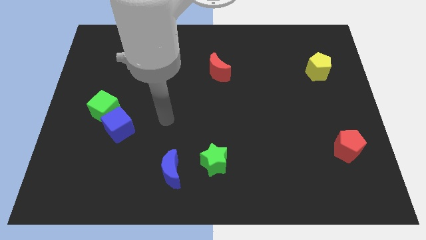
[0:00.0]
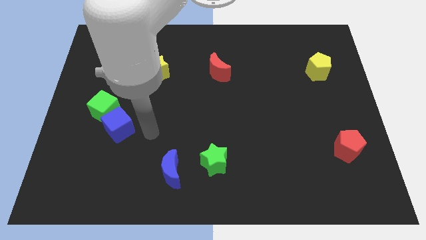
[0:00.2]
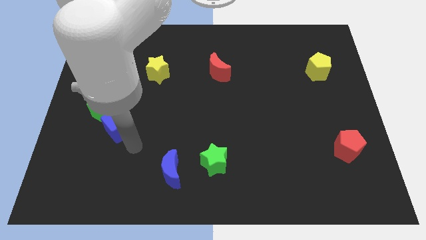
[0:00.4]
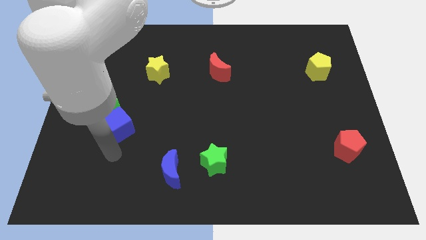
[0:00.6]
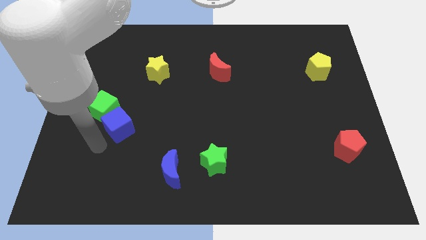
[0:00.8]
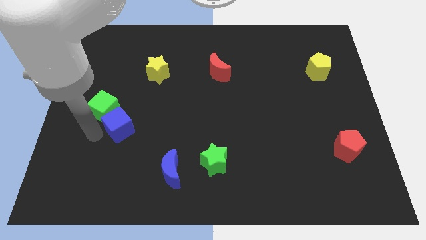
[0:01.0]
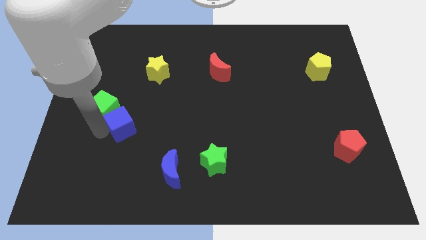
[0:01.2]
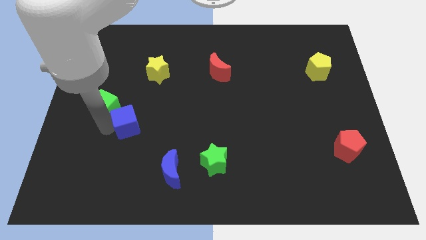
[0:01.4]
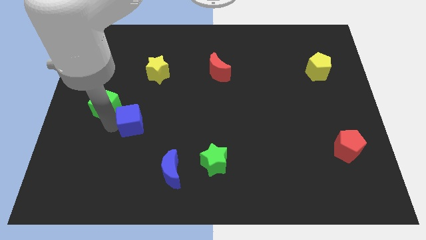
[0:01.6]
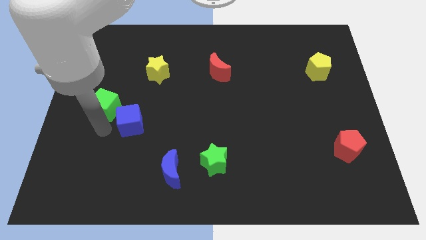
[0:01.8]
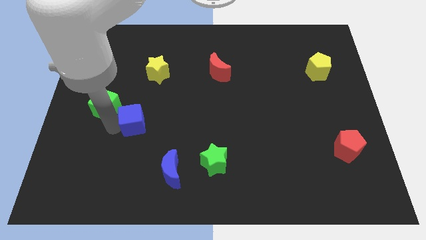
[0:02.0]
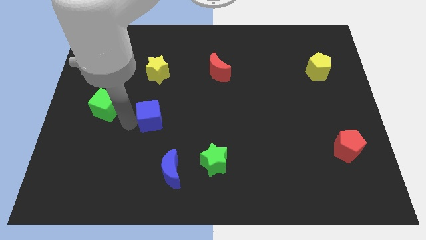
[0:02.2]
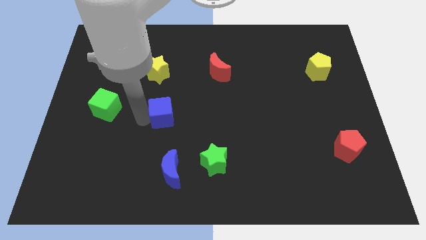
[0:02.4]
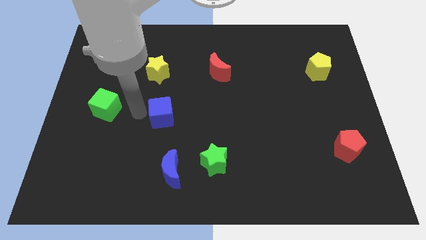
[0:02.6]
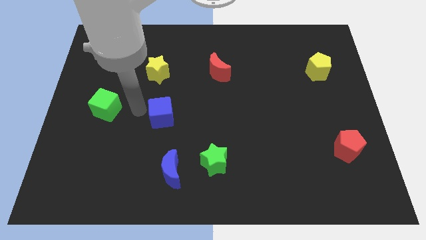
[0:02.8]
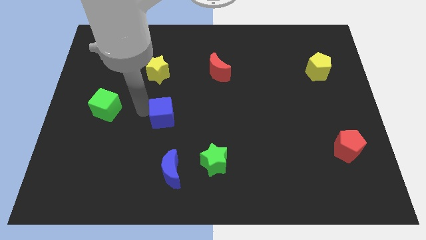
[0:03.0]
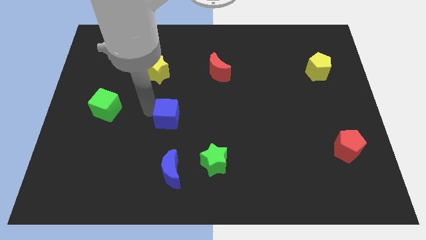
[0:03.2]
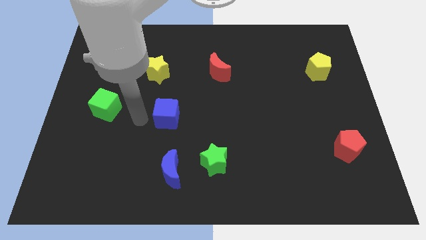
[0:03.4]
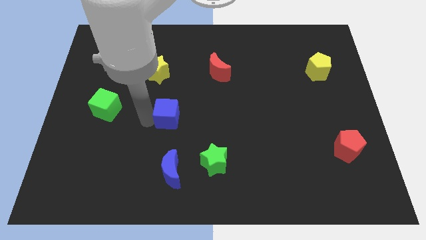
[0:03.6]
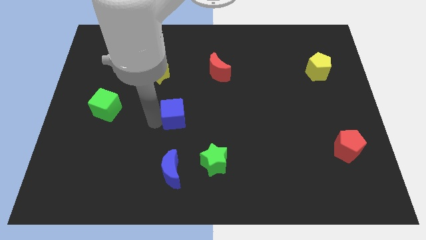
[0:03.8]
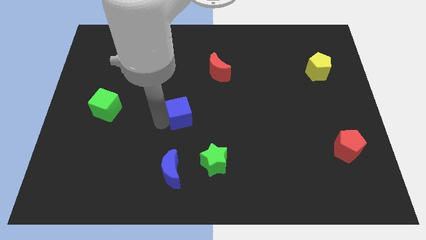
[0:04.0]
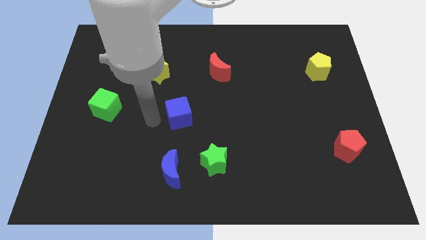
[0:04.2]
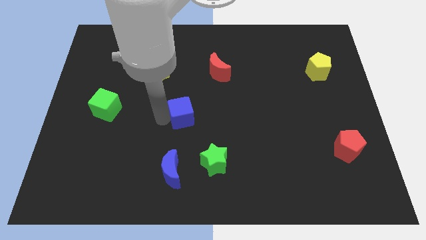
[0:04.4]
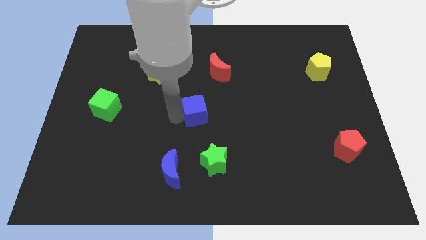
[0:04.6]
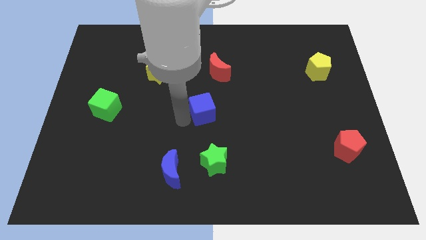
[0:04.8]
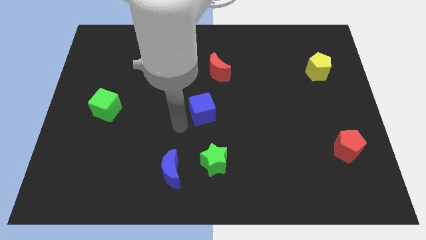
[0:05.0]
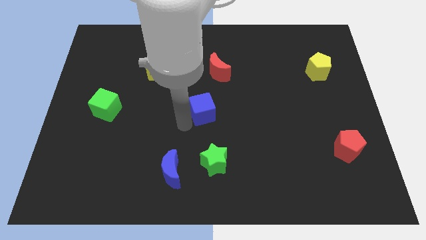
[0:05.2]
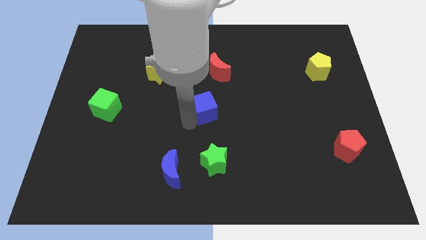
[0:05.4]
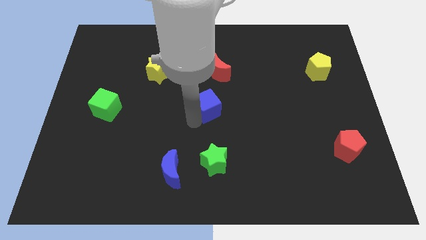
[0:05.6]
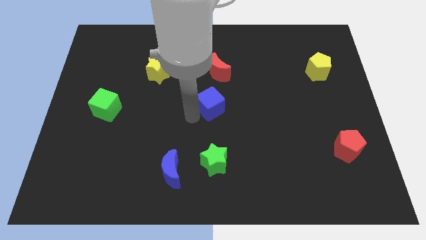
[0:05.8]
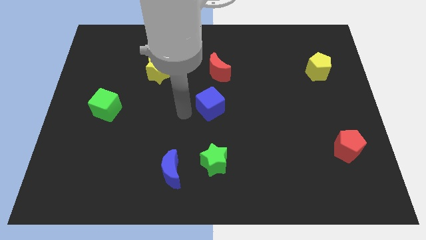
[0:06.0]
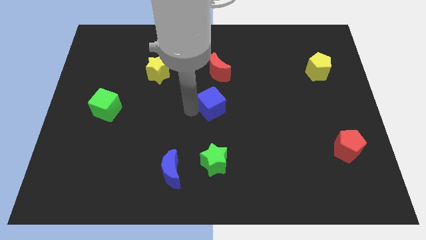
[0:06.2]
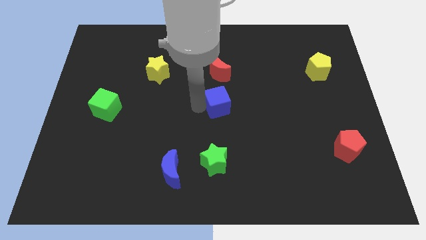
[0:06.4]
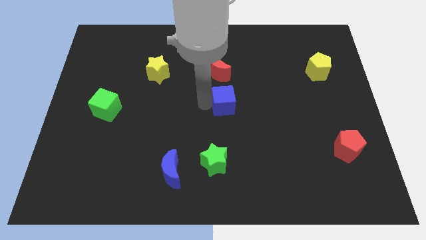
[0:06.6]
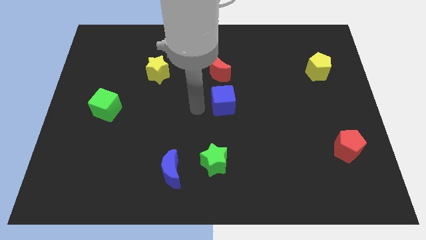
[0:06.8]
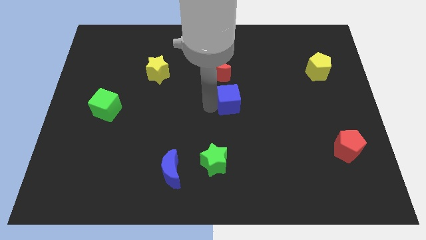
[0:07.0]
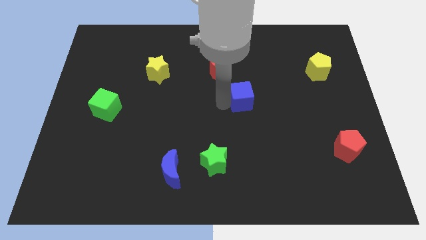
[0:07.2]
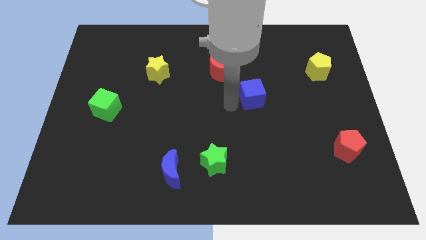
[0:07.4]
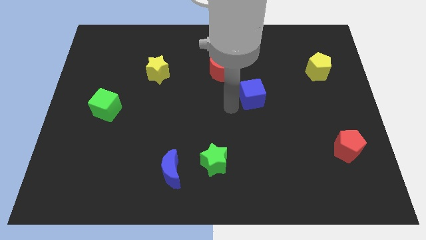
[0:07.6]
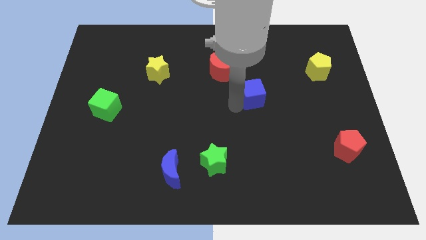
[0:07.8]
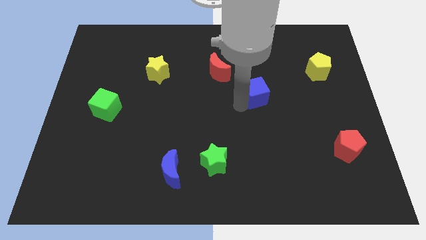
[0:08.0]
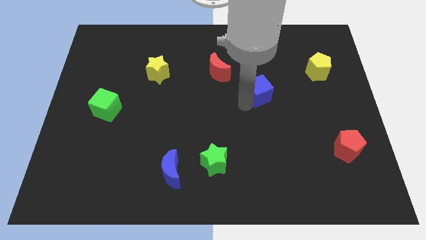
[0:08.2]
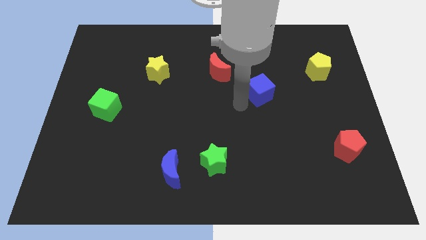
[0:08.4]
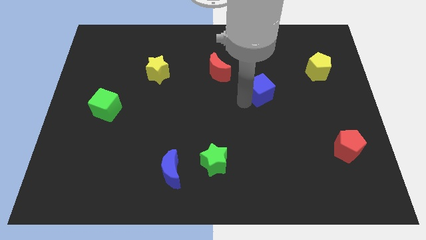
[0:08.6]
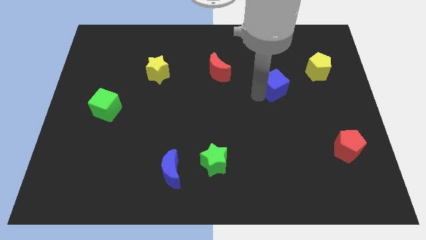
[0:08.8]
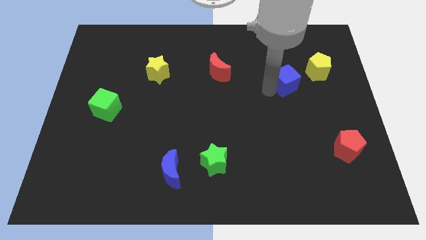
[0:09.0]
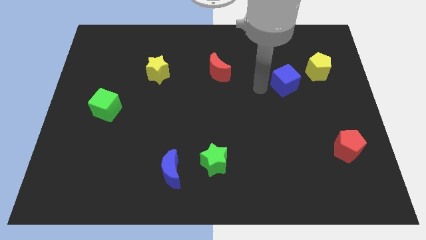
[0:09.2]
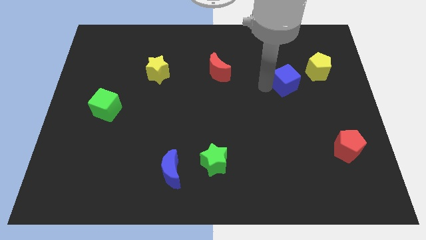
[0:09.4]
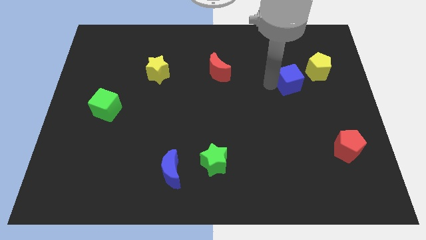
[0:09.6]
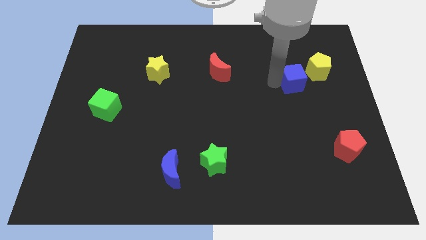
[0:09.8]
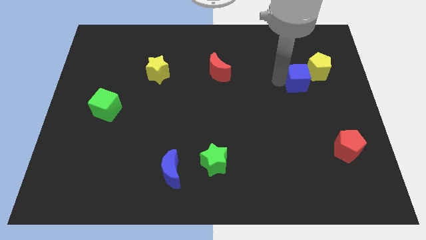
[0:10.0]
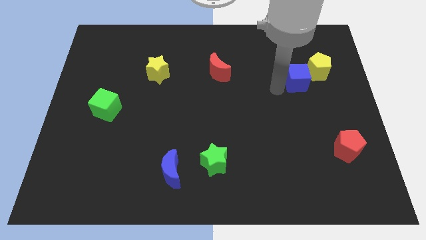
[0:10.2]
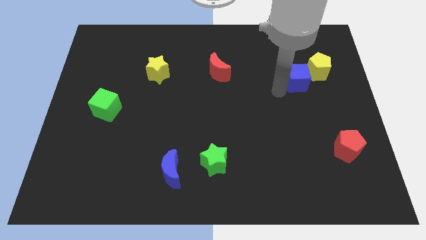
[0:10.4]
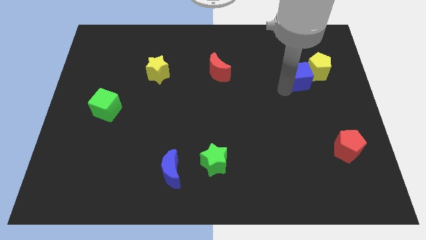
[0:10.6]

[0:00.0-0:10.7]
put the blue cube next to the yellow pentagon

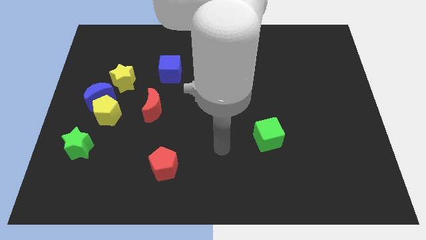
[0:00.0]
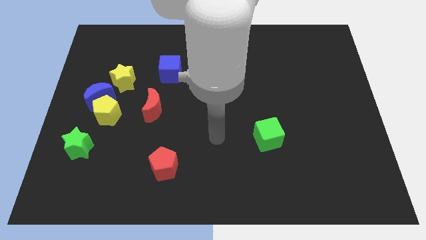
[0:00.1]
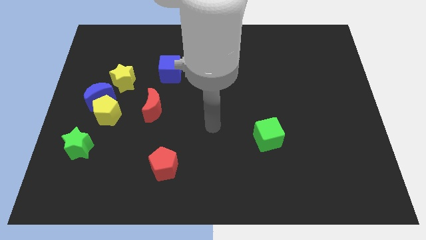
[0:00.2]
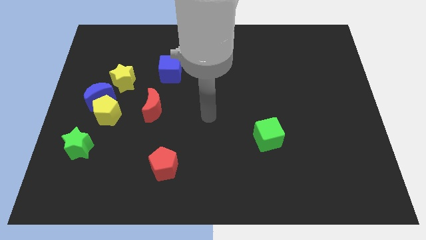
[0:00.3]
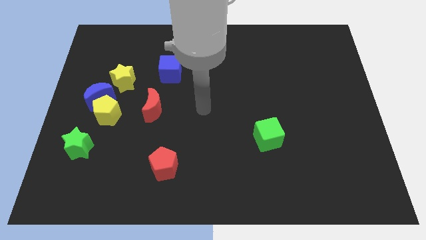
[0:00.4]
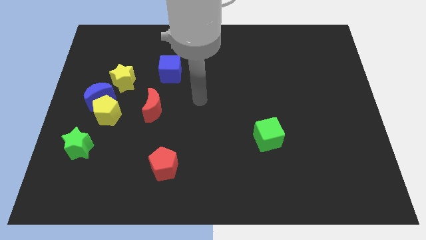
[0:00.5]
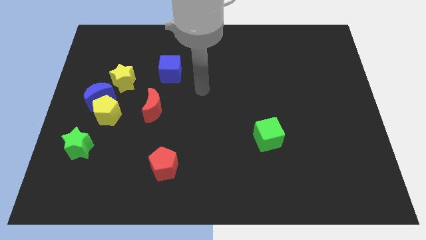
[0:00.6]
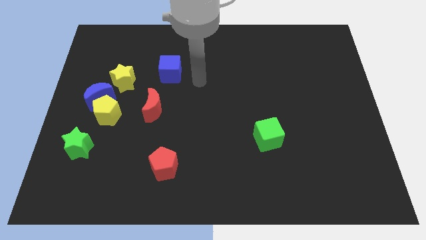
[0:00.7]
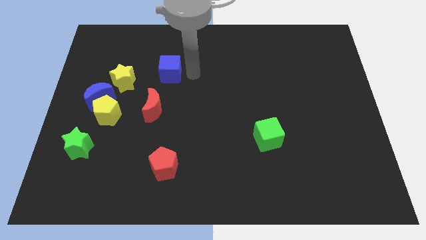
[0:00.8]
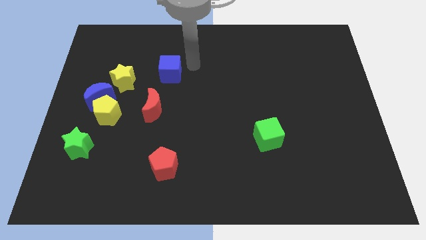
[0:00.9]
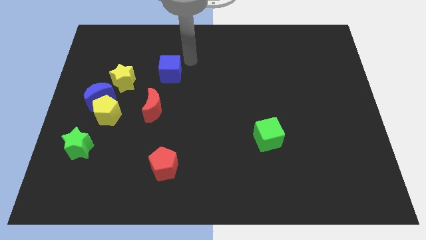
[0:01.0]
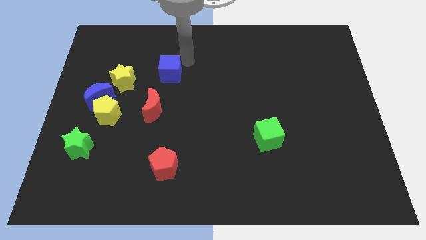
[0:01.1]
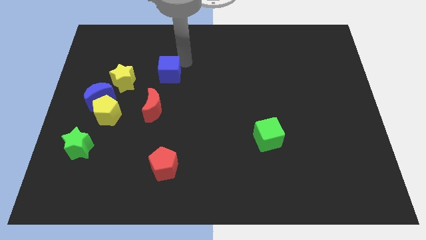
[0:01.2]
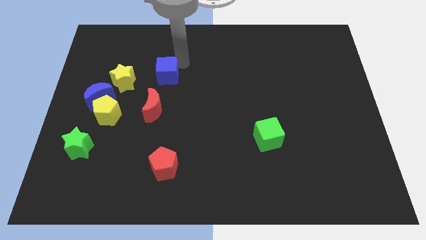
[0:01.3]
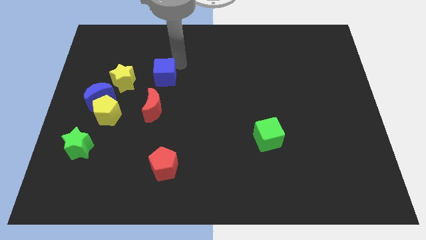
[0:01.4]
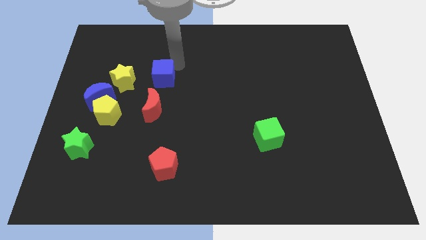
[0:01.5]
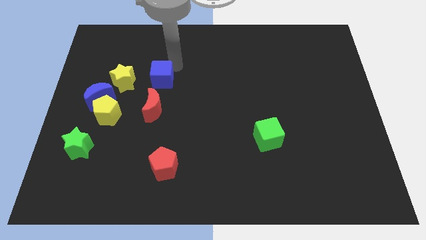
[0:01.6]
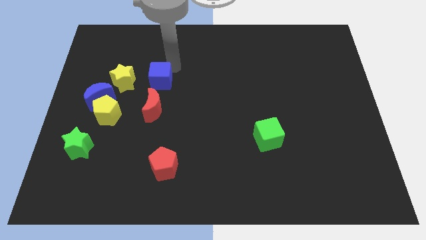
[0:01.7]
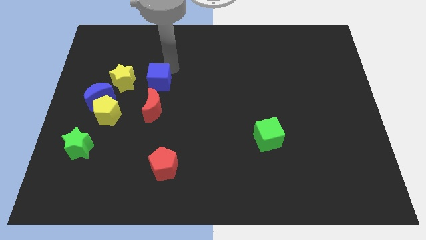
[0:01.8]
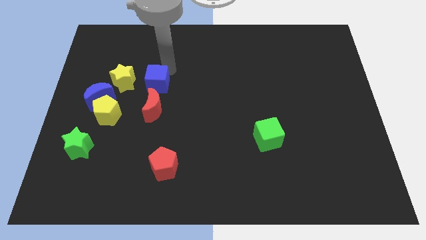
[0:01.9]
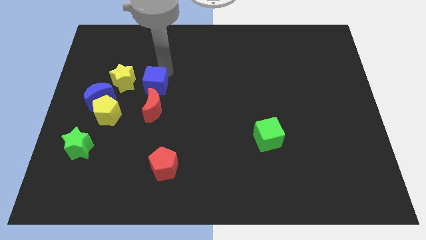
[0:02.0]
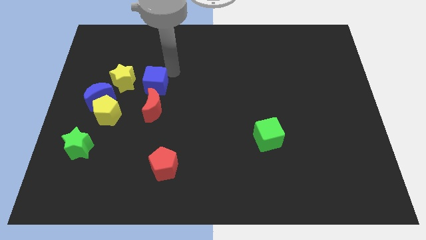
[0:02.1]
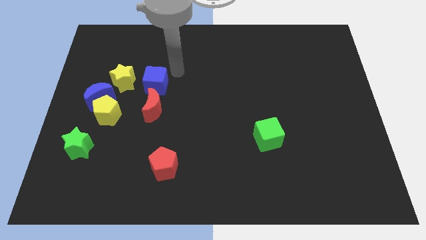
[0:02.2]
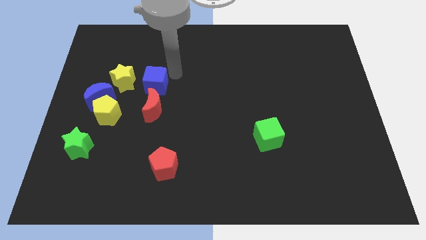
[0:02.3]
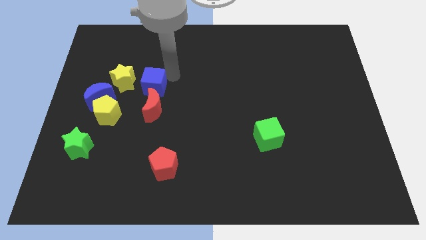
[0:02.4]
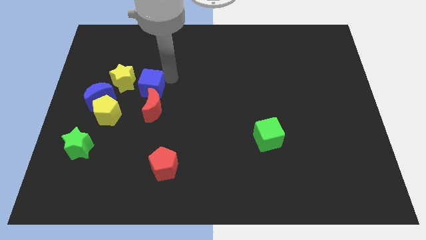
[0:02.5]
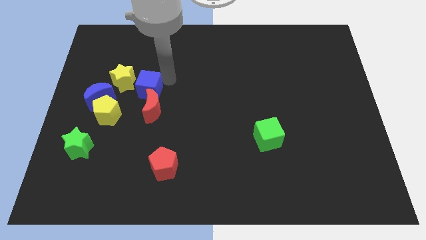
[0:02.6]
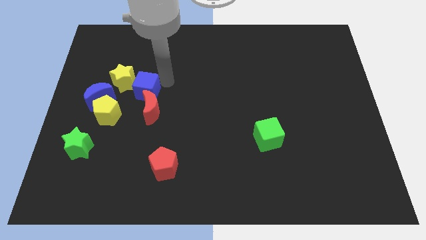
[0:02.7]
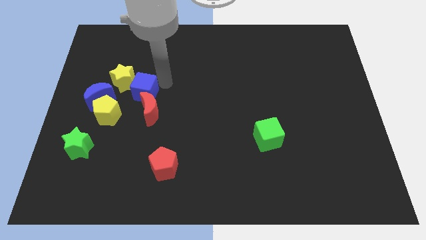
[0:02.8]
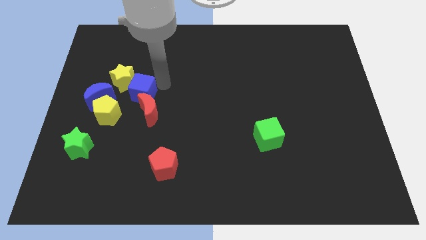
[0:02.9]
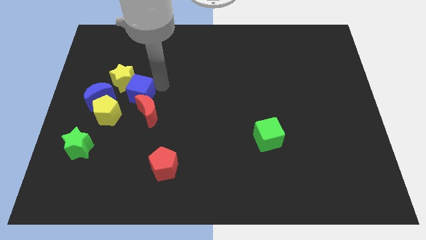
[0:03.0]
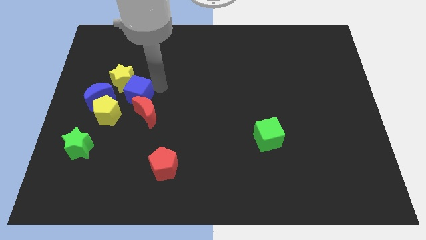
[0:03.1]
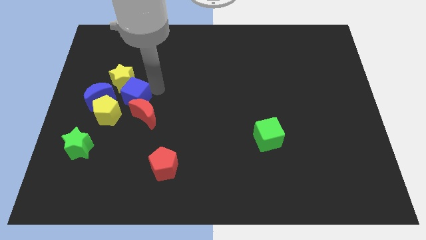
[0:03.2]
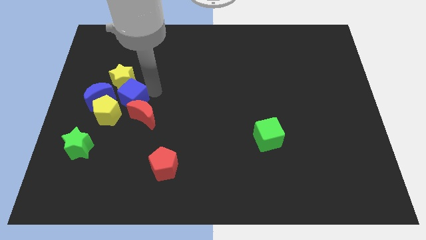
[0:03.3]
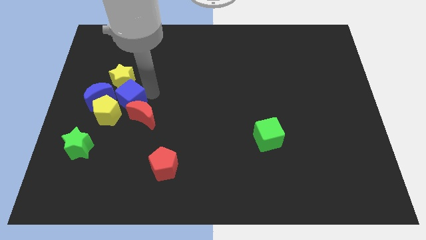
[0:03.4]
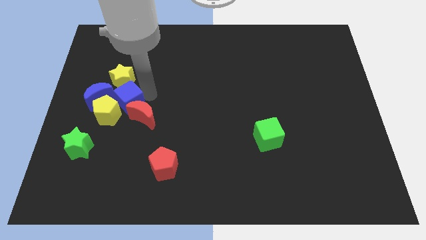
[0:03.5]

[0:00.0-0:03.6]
push the blue cube to the yellow pentagon
